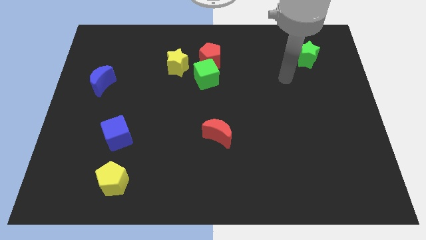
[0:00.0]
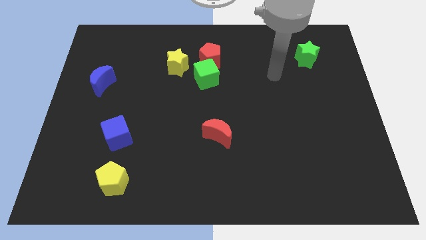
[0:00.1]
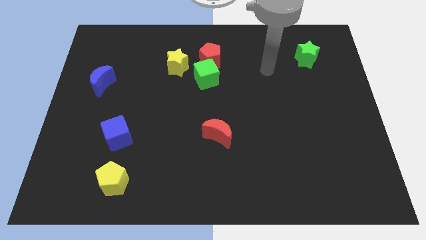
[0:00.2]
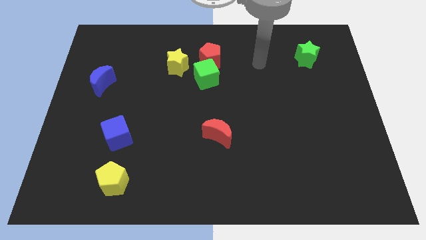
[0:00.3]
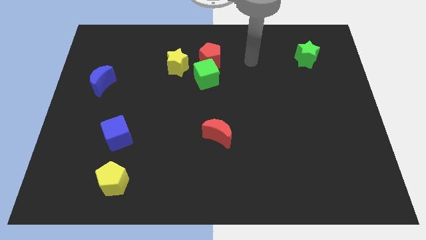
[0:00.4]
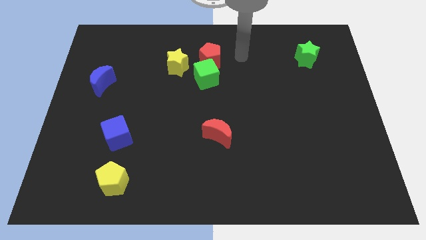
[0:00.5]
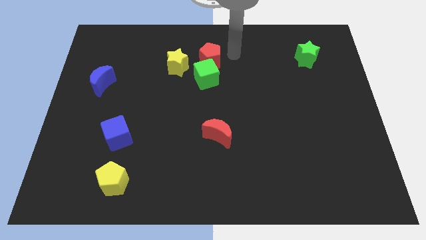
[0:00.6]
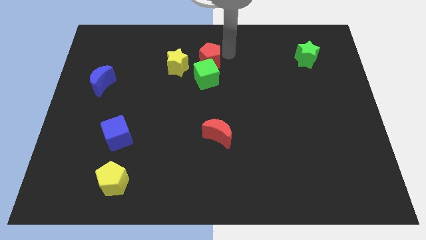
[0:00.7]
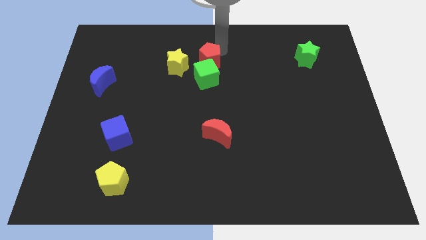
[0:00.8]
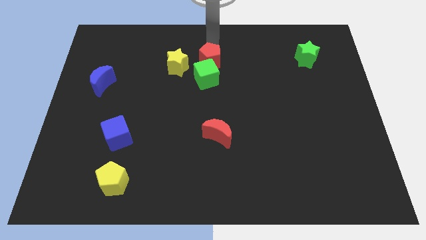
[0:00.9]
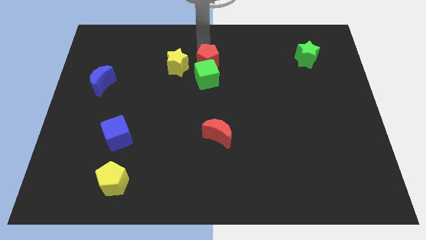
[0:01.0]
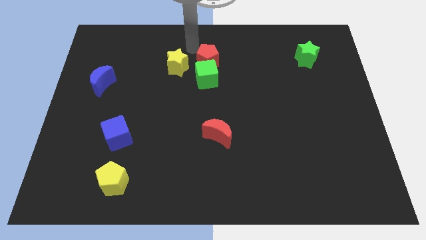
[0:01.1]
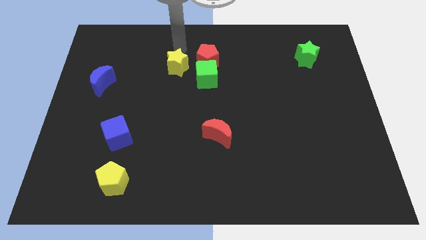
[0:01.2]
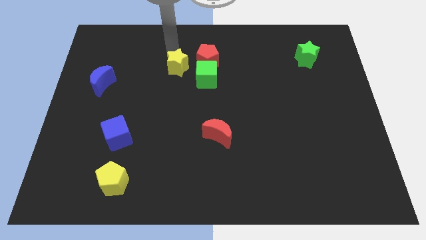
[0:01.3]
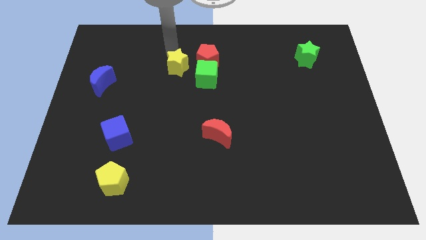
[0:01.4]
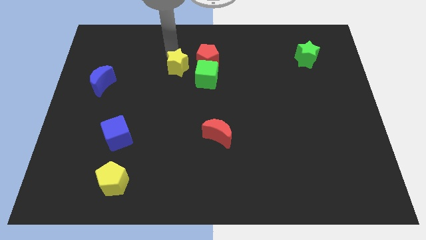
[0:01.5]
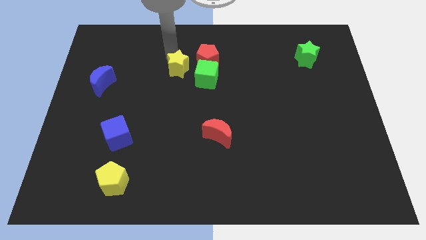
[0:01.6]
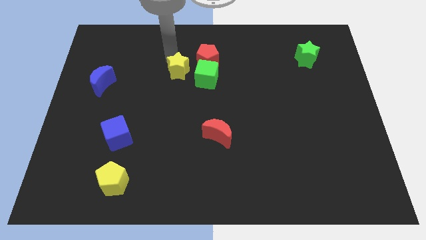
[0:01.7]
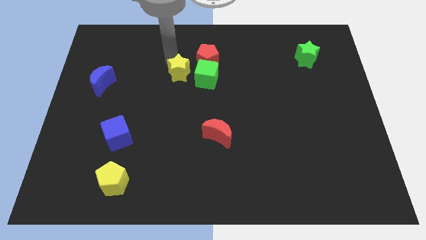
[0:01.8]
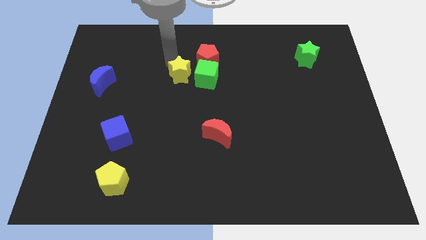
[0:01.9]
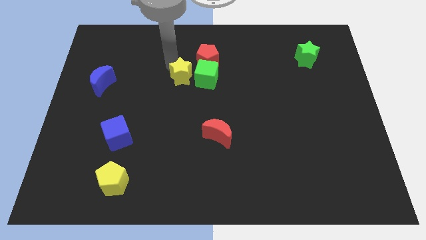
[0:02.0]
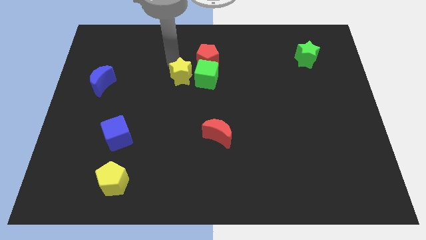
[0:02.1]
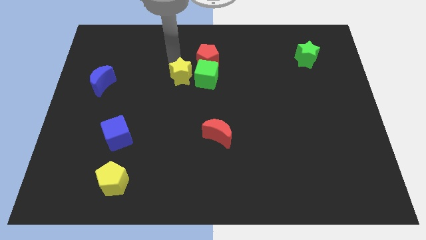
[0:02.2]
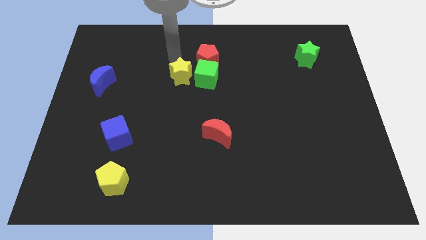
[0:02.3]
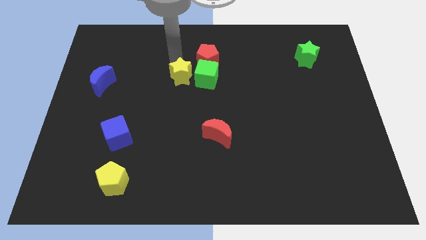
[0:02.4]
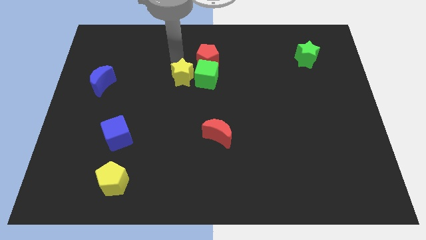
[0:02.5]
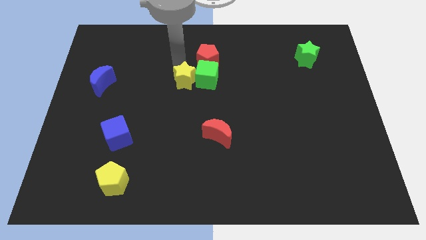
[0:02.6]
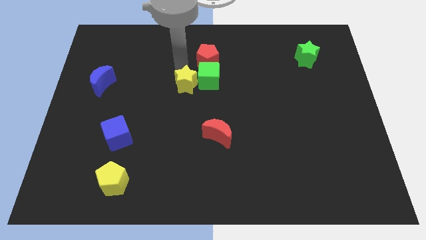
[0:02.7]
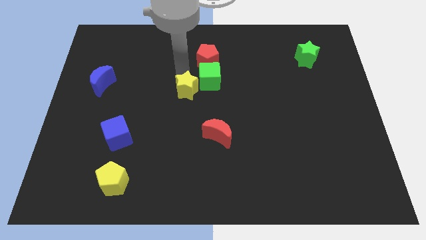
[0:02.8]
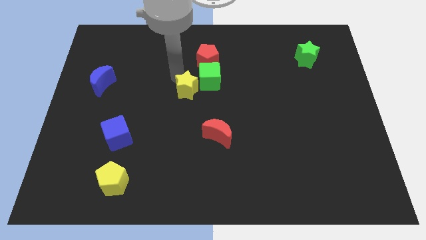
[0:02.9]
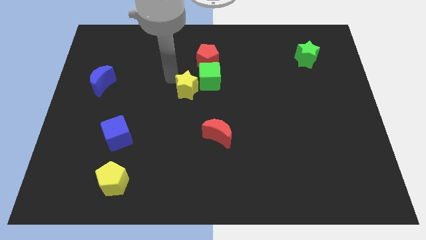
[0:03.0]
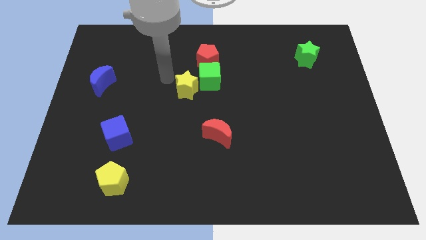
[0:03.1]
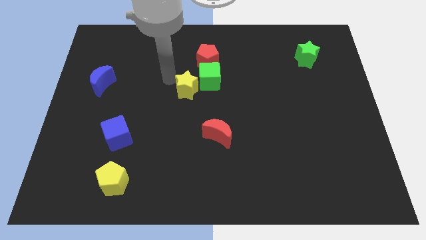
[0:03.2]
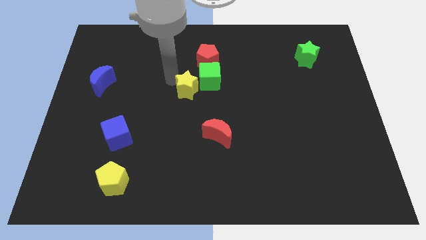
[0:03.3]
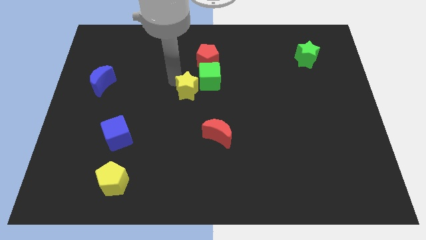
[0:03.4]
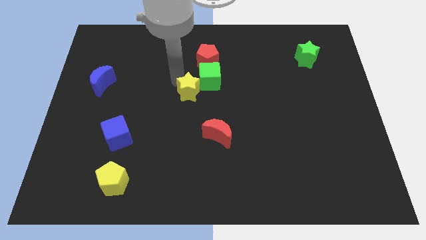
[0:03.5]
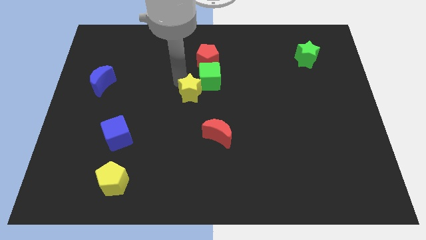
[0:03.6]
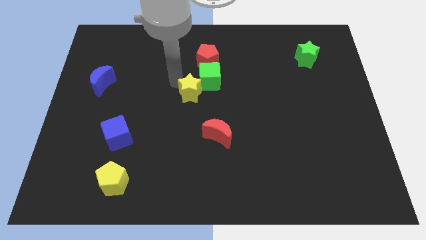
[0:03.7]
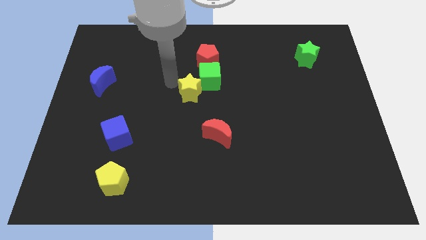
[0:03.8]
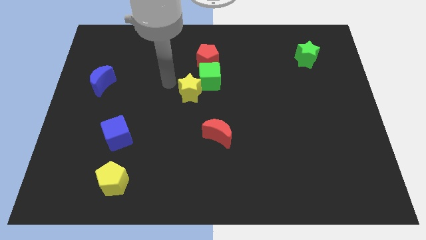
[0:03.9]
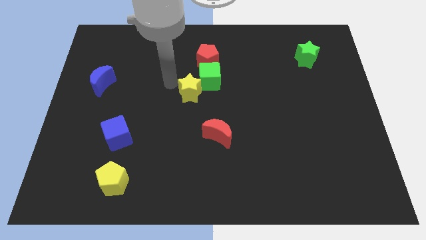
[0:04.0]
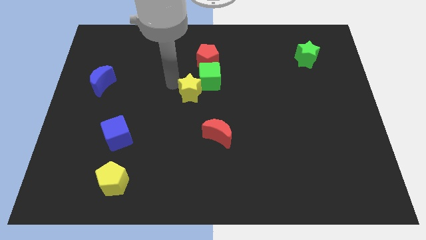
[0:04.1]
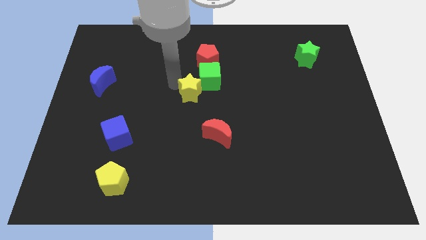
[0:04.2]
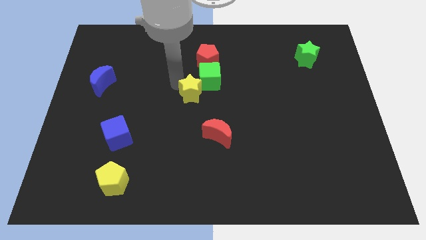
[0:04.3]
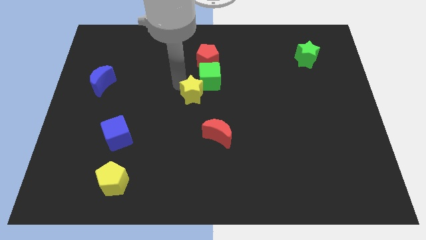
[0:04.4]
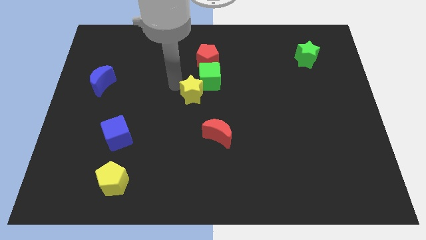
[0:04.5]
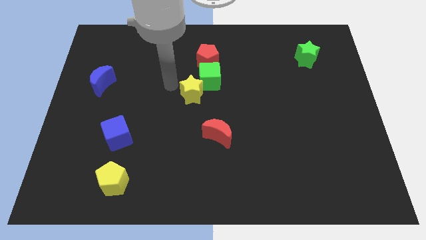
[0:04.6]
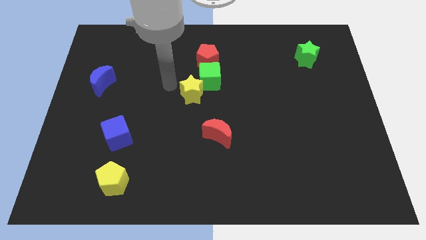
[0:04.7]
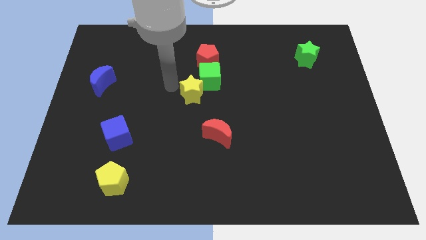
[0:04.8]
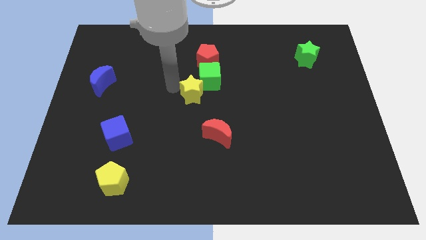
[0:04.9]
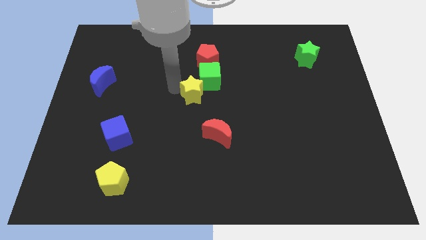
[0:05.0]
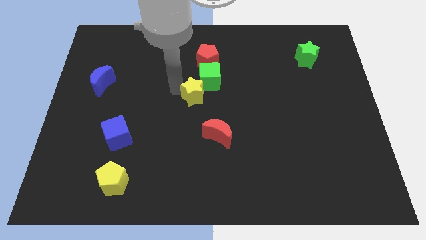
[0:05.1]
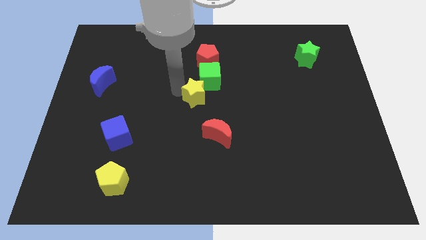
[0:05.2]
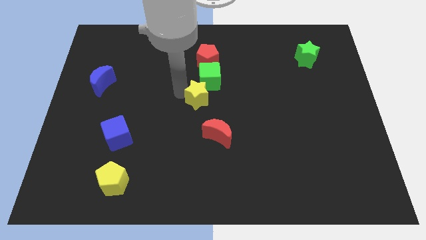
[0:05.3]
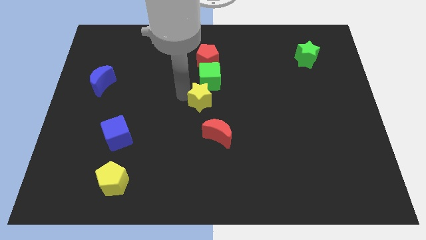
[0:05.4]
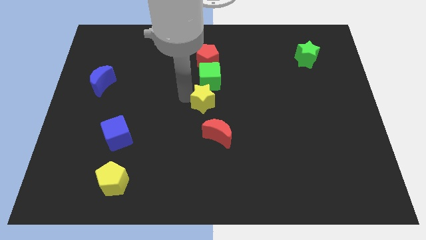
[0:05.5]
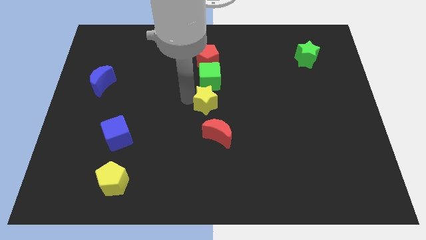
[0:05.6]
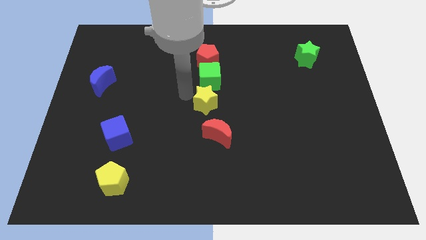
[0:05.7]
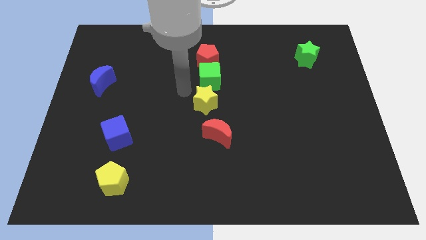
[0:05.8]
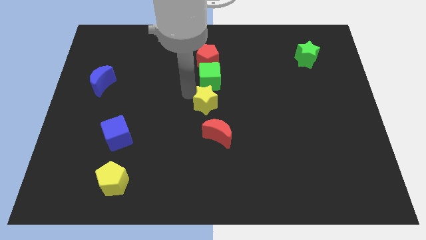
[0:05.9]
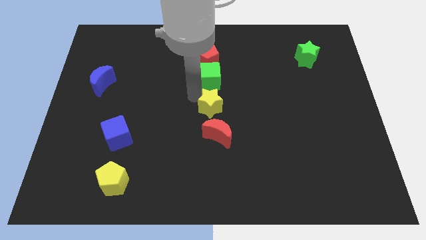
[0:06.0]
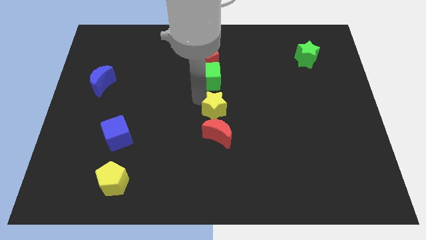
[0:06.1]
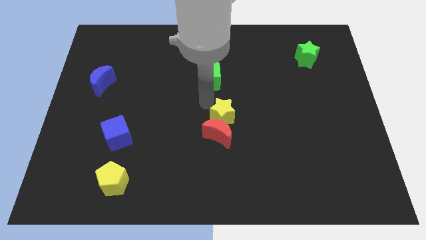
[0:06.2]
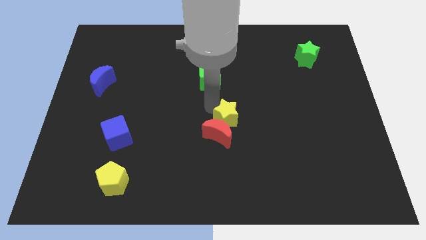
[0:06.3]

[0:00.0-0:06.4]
slide the yellow star down and then right

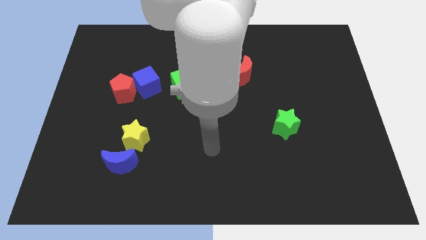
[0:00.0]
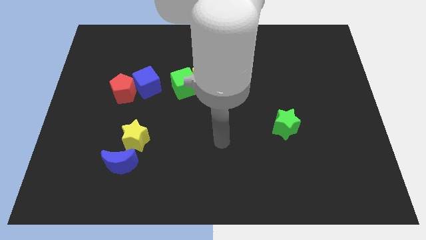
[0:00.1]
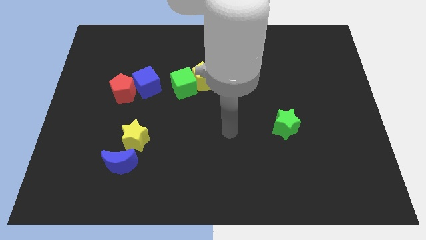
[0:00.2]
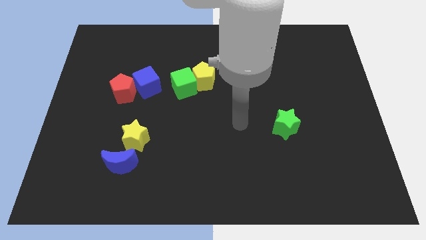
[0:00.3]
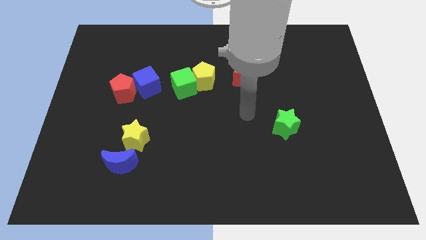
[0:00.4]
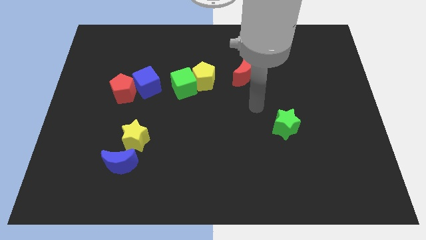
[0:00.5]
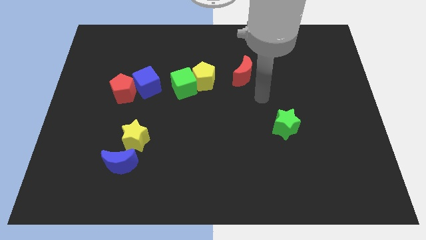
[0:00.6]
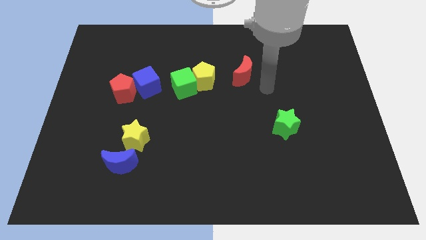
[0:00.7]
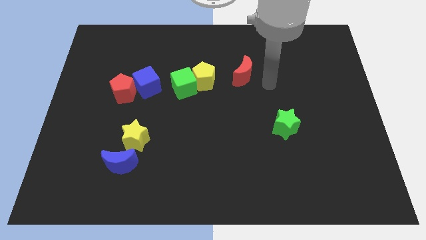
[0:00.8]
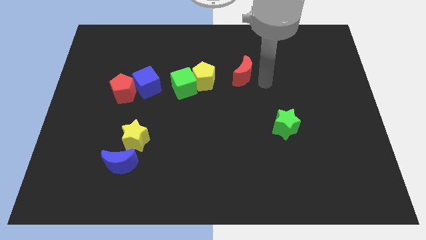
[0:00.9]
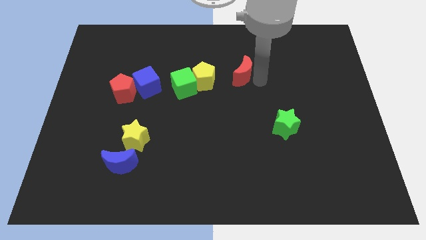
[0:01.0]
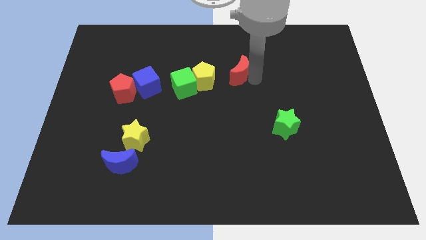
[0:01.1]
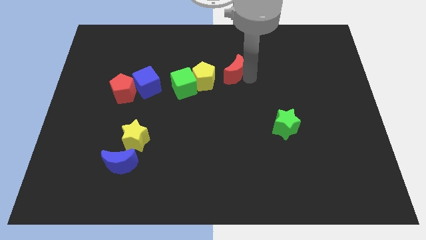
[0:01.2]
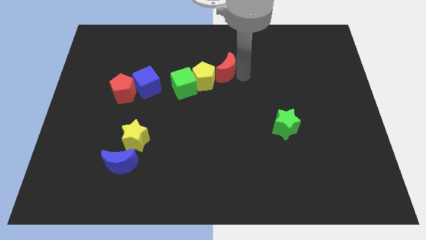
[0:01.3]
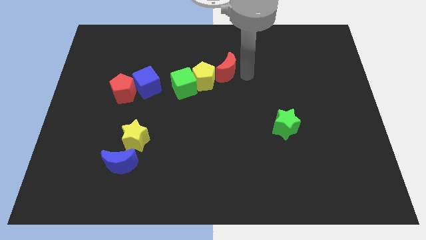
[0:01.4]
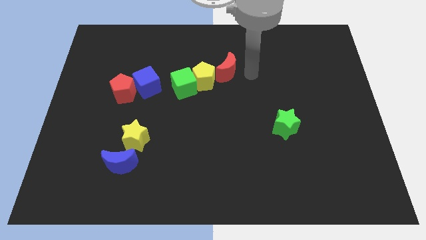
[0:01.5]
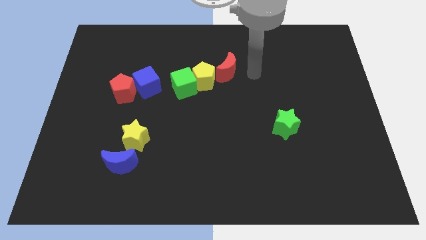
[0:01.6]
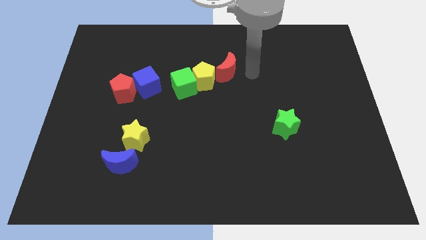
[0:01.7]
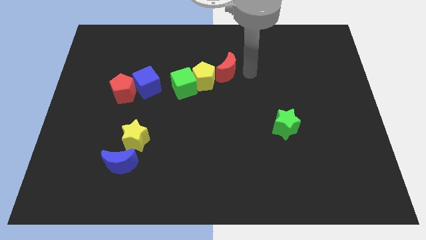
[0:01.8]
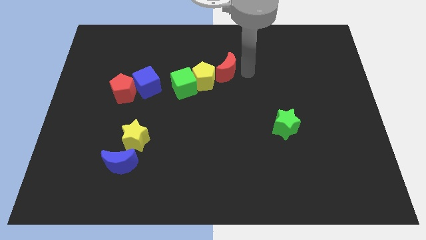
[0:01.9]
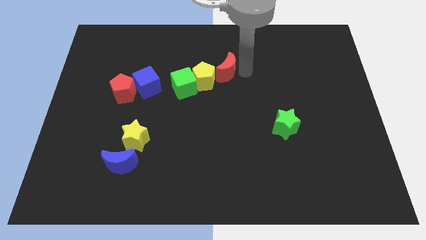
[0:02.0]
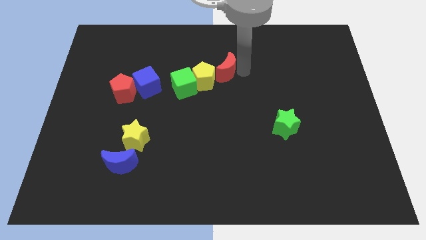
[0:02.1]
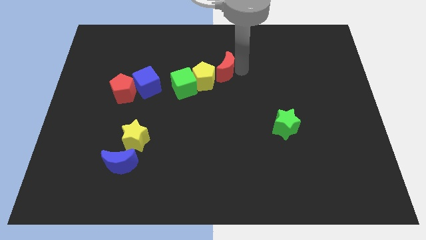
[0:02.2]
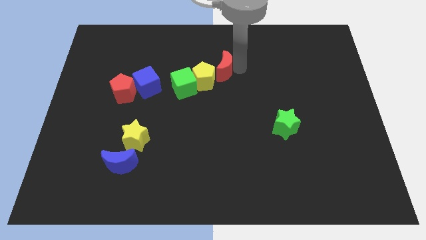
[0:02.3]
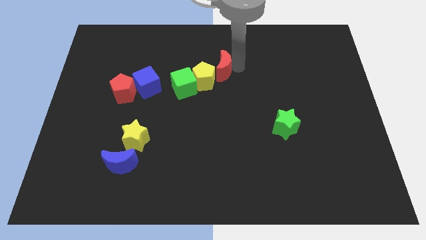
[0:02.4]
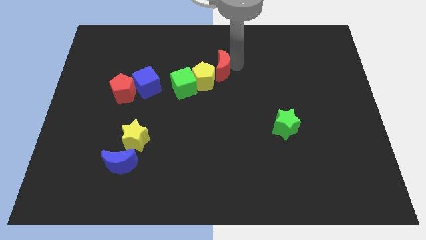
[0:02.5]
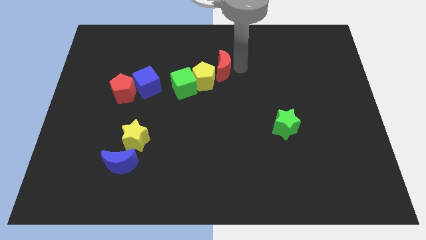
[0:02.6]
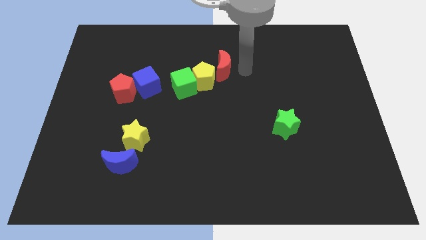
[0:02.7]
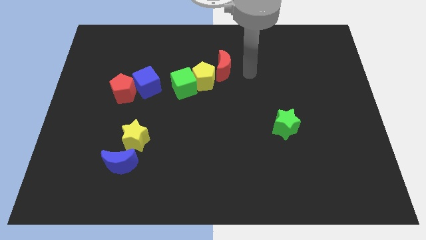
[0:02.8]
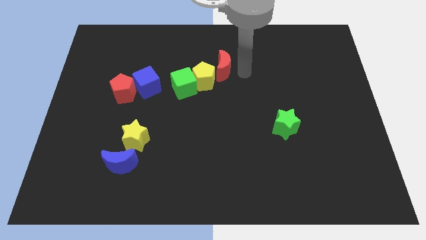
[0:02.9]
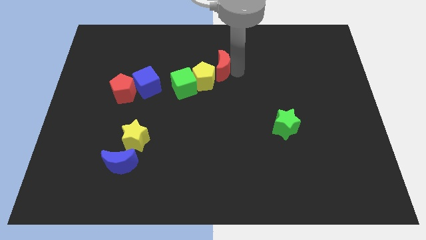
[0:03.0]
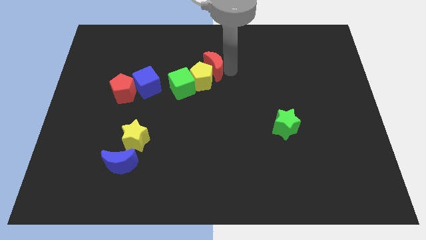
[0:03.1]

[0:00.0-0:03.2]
slightly push the red moon to the left
